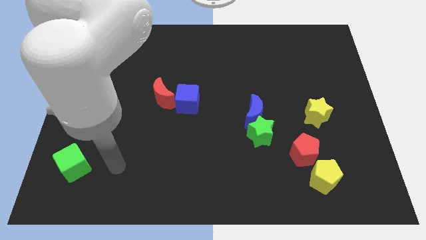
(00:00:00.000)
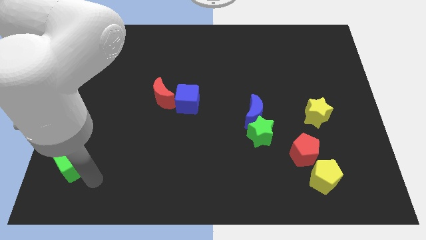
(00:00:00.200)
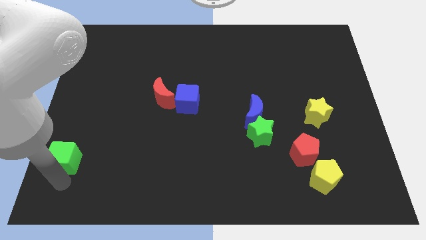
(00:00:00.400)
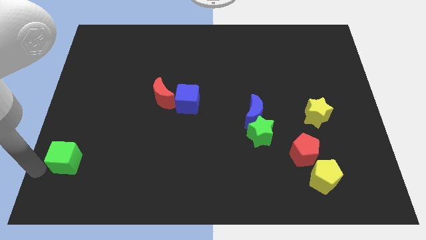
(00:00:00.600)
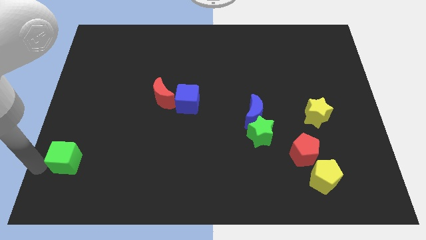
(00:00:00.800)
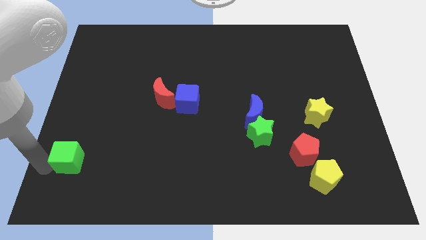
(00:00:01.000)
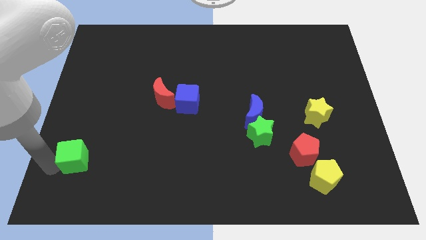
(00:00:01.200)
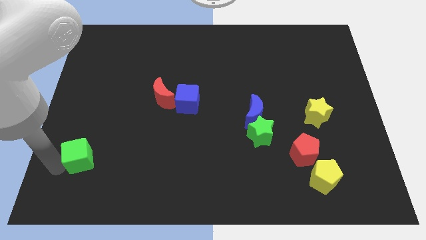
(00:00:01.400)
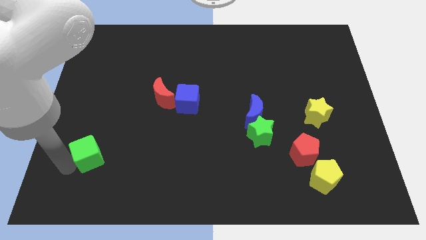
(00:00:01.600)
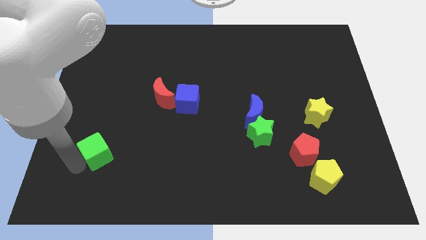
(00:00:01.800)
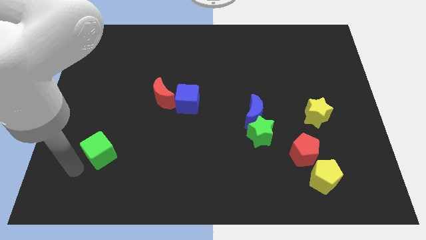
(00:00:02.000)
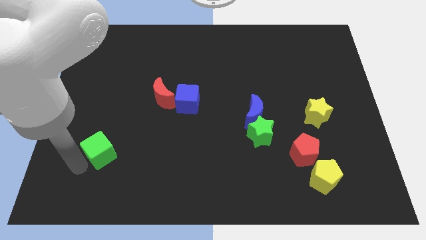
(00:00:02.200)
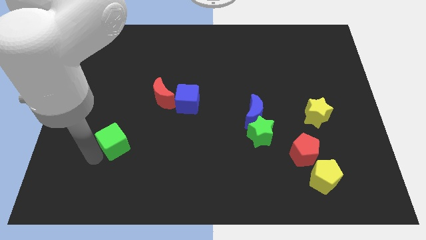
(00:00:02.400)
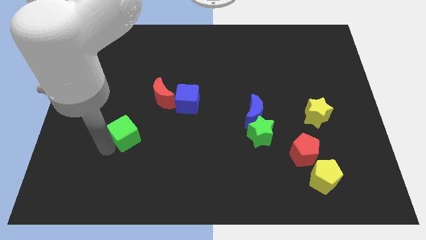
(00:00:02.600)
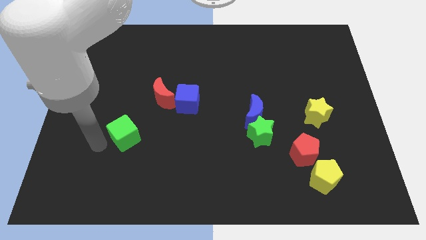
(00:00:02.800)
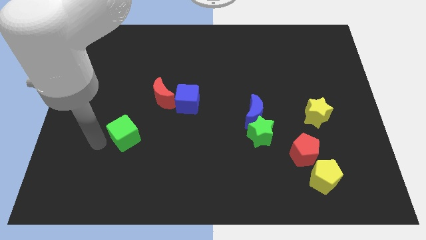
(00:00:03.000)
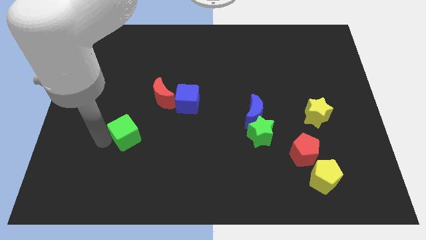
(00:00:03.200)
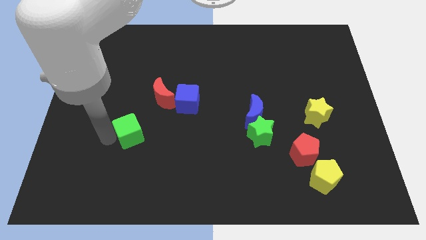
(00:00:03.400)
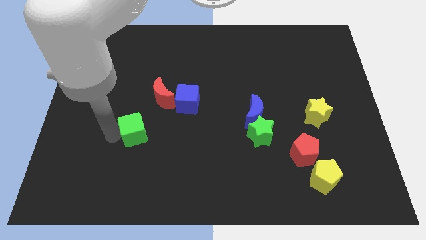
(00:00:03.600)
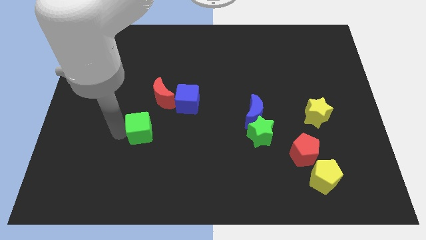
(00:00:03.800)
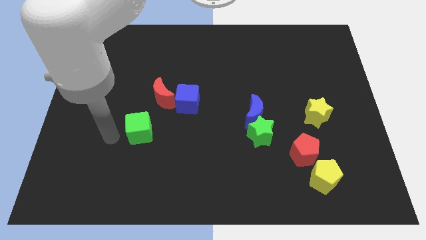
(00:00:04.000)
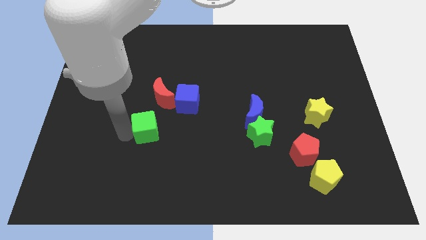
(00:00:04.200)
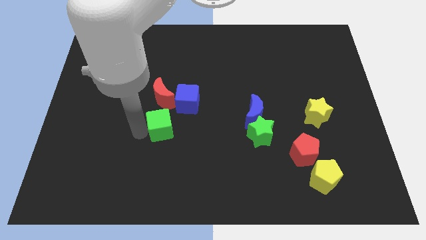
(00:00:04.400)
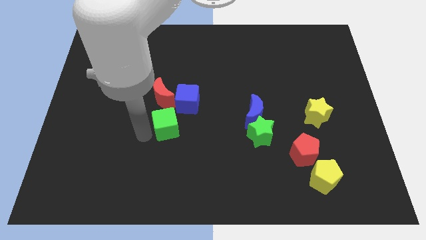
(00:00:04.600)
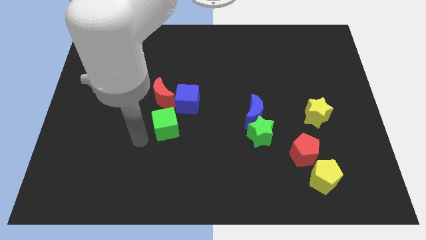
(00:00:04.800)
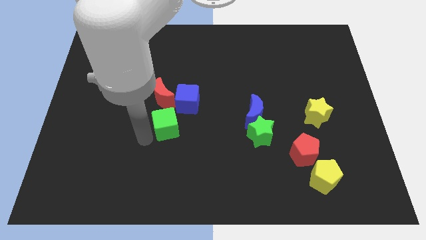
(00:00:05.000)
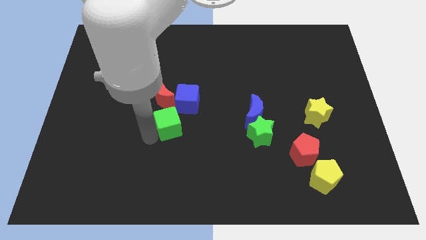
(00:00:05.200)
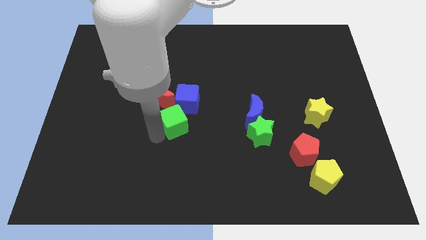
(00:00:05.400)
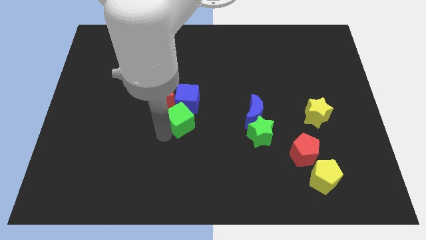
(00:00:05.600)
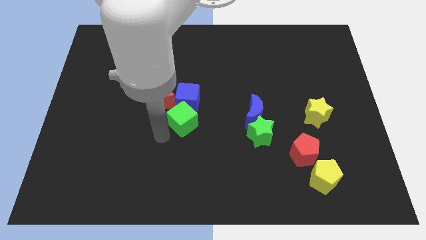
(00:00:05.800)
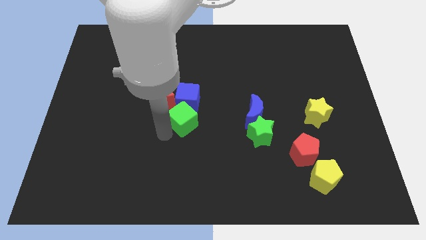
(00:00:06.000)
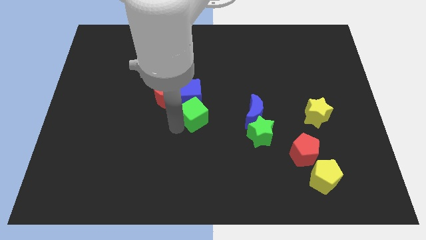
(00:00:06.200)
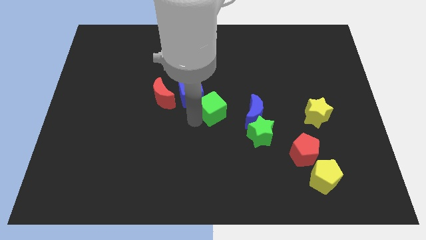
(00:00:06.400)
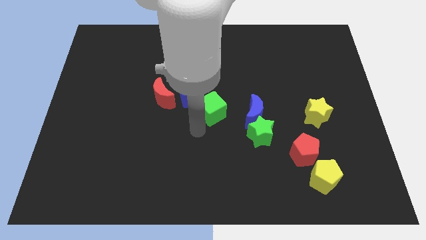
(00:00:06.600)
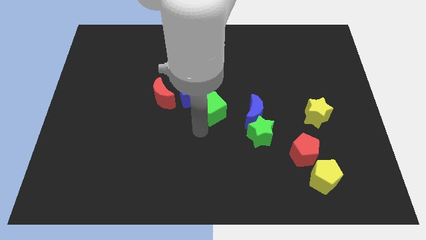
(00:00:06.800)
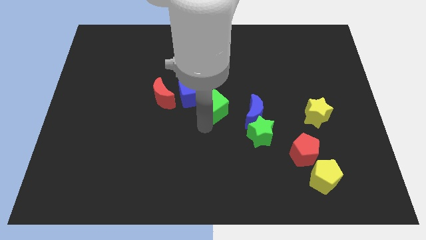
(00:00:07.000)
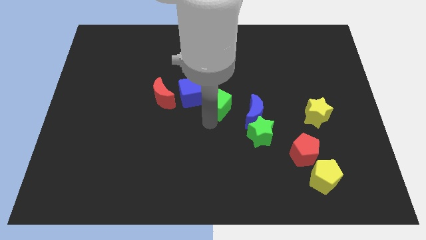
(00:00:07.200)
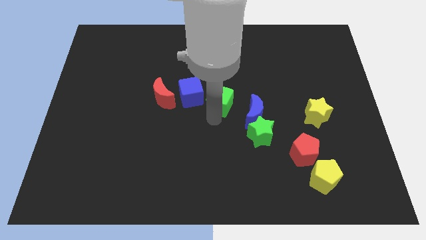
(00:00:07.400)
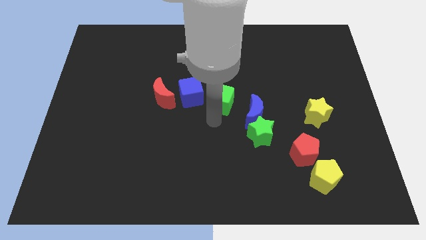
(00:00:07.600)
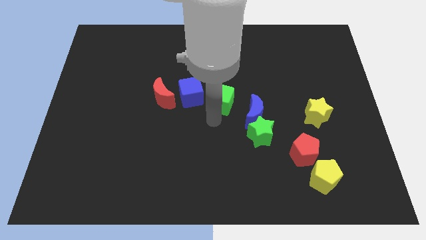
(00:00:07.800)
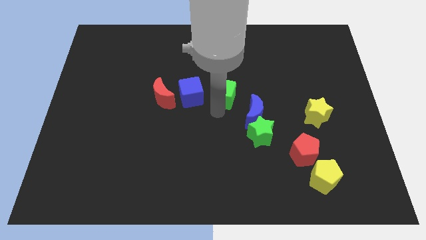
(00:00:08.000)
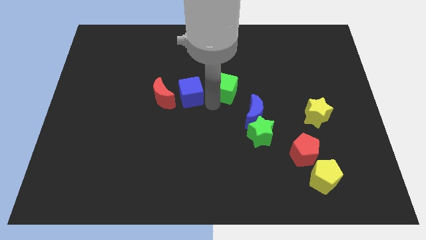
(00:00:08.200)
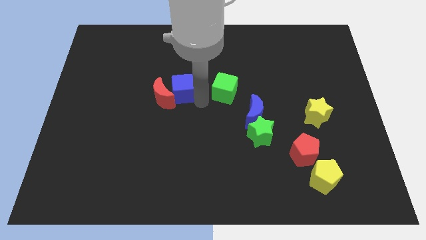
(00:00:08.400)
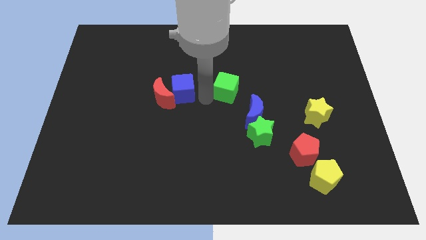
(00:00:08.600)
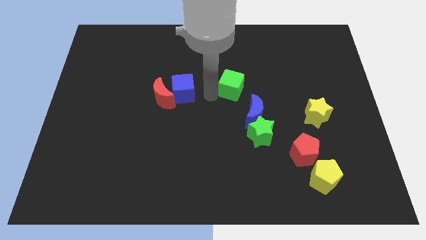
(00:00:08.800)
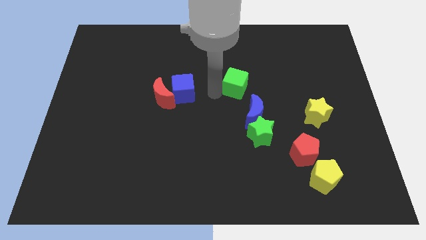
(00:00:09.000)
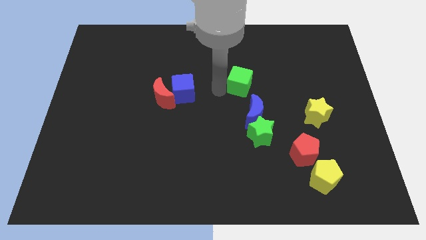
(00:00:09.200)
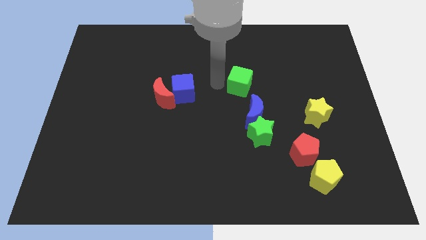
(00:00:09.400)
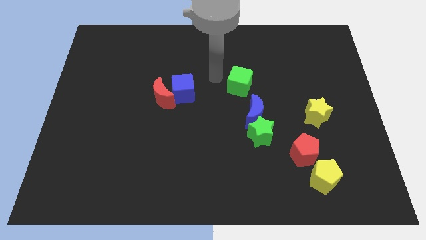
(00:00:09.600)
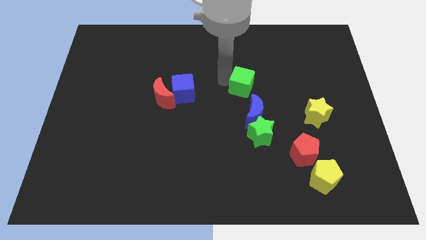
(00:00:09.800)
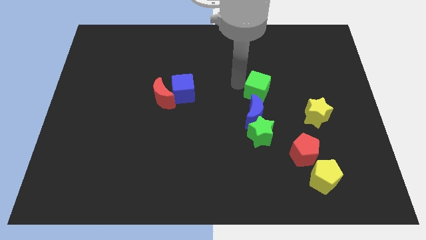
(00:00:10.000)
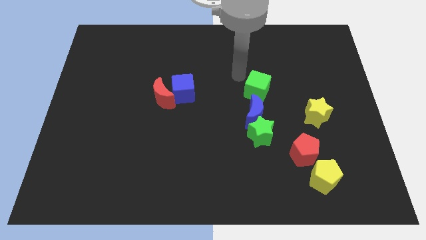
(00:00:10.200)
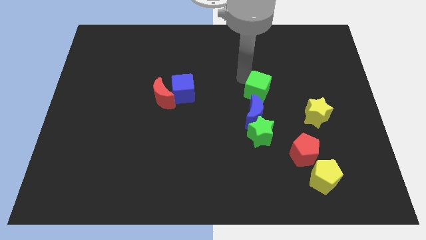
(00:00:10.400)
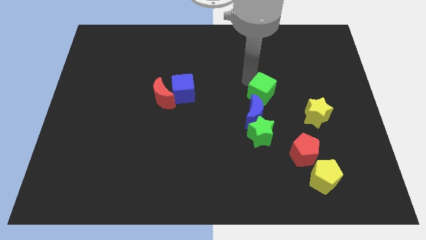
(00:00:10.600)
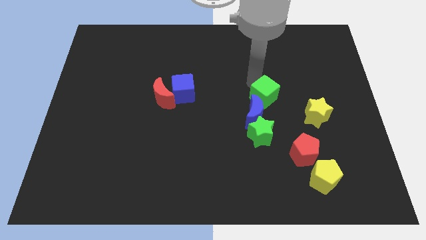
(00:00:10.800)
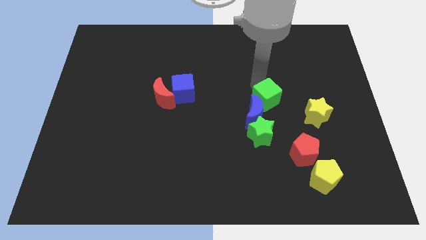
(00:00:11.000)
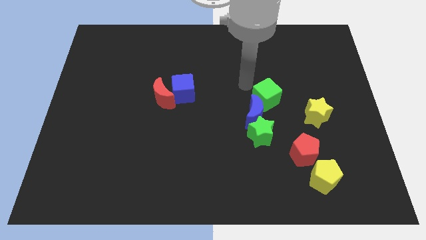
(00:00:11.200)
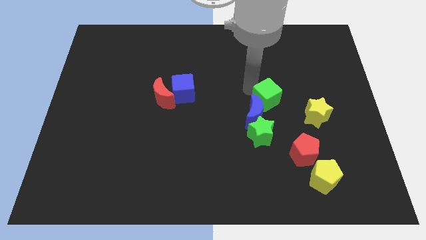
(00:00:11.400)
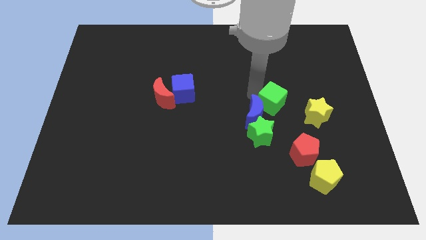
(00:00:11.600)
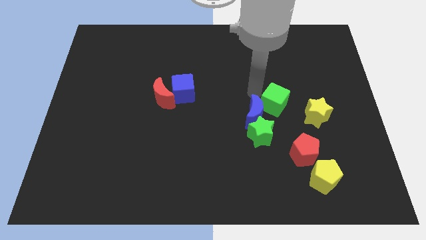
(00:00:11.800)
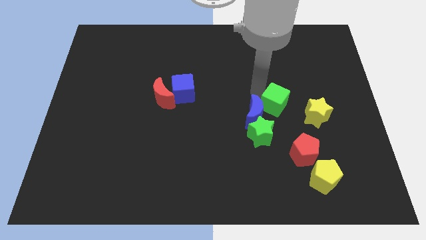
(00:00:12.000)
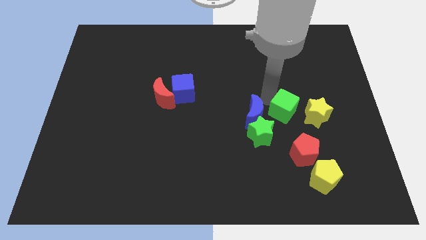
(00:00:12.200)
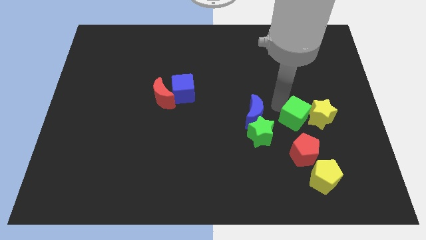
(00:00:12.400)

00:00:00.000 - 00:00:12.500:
put the green cube to the right of the green star

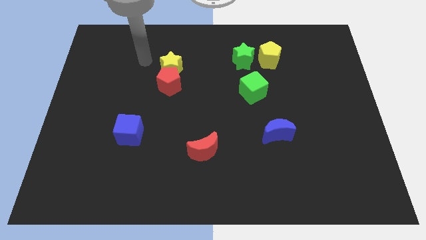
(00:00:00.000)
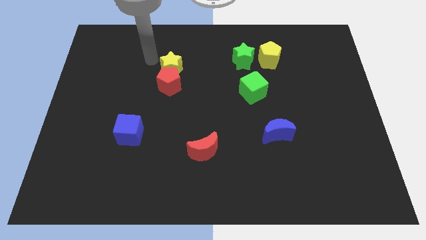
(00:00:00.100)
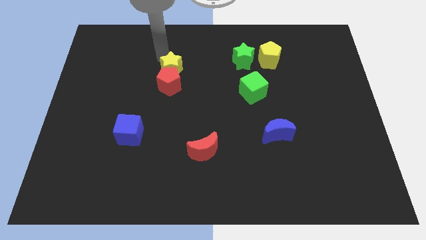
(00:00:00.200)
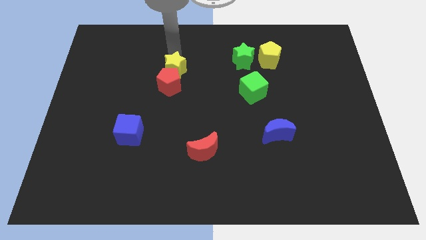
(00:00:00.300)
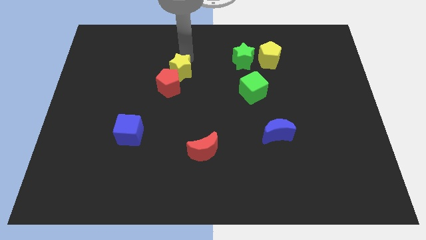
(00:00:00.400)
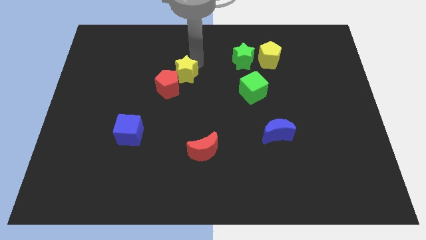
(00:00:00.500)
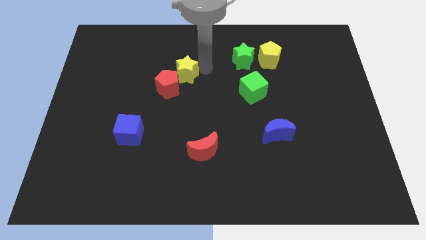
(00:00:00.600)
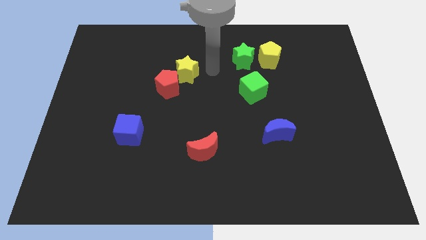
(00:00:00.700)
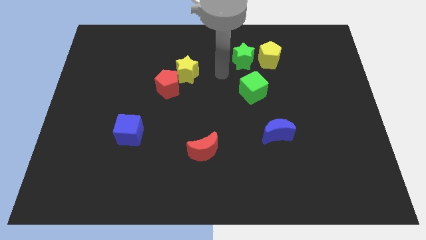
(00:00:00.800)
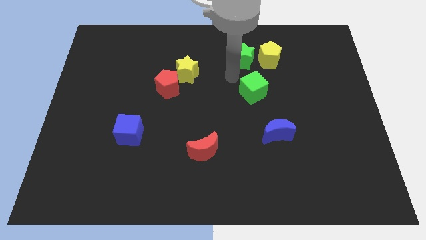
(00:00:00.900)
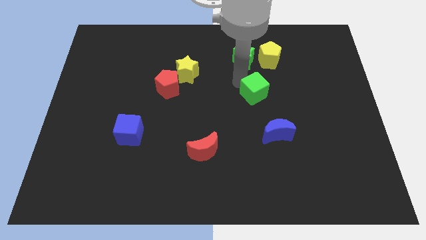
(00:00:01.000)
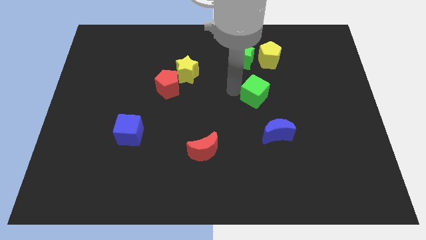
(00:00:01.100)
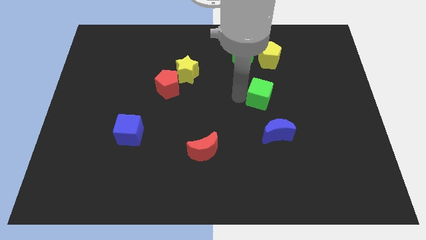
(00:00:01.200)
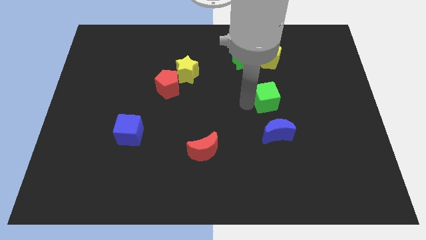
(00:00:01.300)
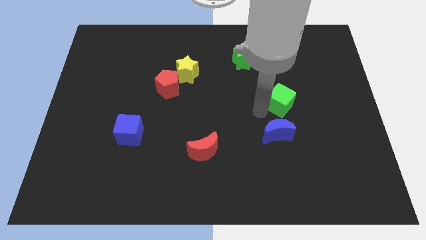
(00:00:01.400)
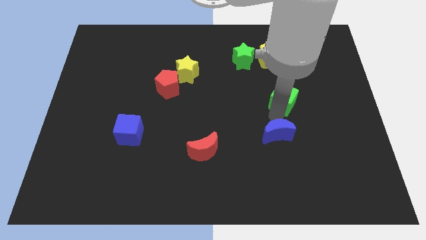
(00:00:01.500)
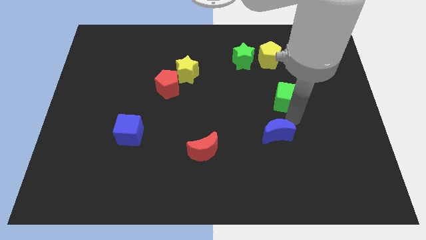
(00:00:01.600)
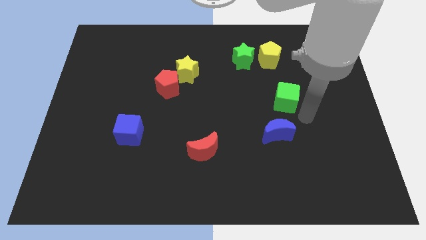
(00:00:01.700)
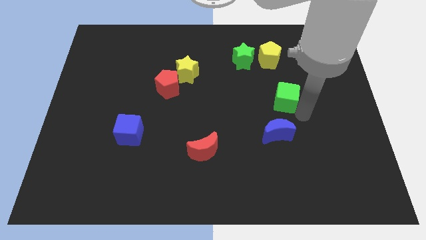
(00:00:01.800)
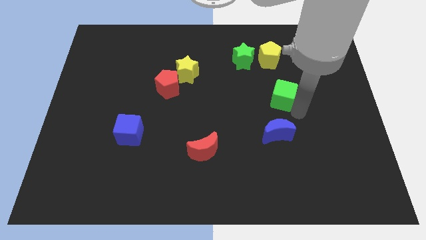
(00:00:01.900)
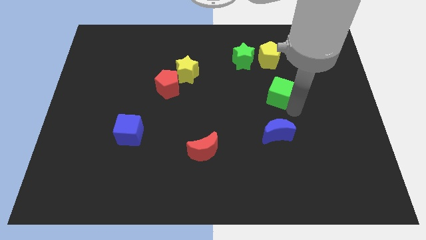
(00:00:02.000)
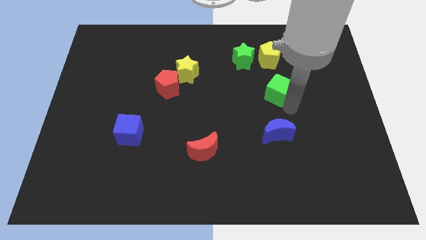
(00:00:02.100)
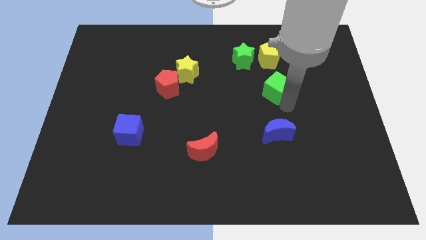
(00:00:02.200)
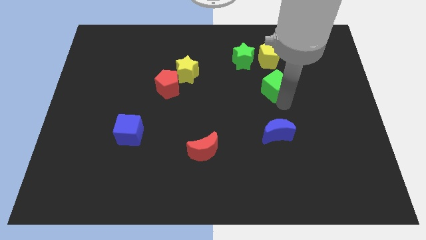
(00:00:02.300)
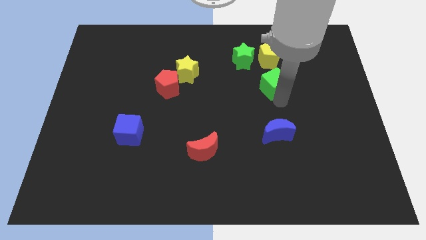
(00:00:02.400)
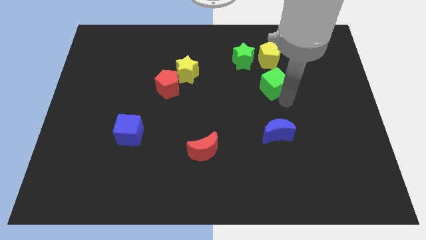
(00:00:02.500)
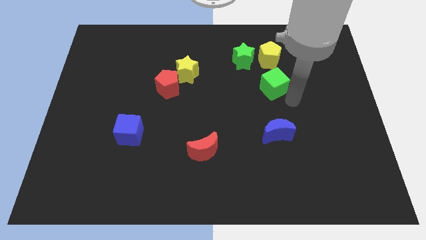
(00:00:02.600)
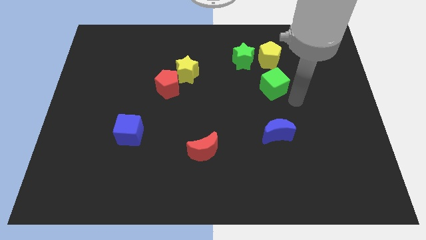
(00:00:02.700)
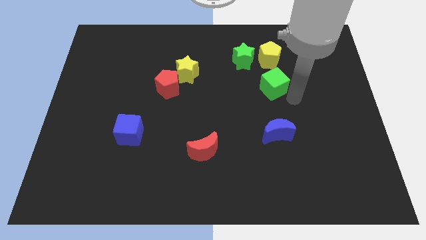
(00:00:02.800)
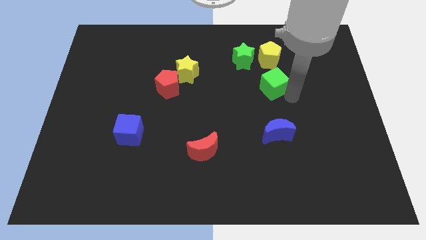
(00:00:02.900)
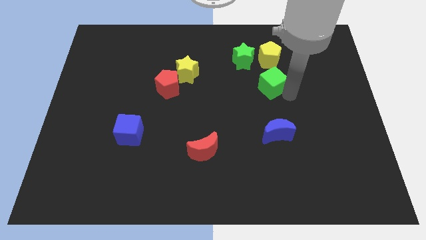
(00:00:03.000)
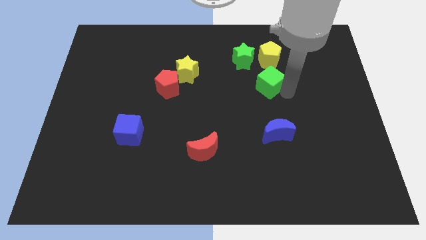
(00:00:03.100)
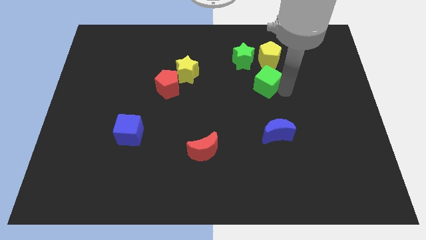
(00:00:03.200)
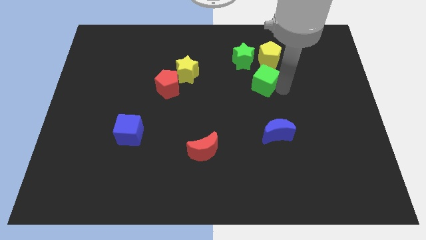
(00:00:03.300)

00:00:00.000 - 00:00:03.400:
move the green cube to the bottom left of the yellow pentagon
